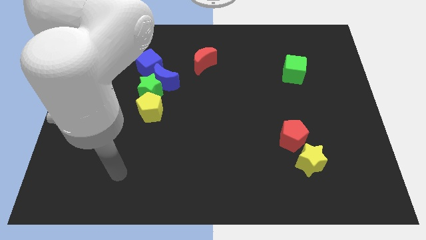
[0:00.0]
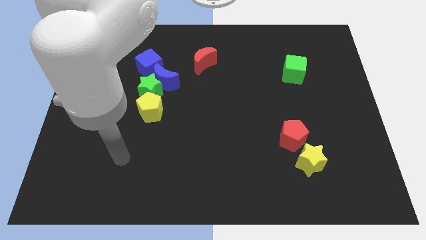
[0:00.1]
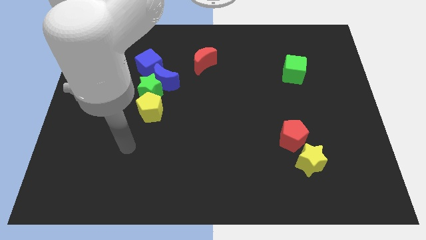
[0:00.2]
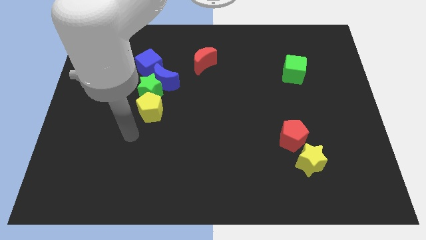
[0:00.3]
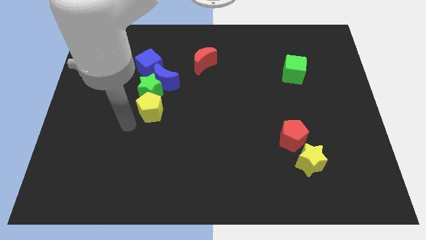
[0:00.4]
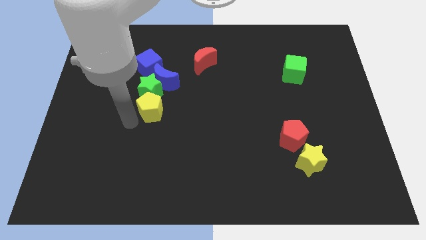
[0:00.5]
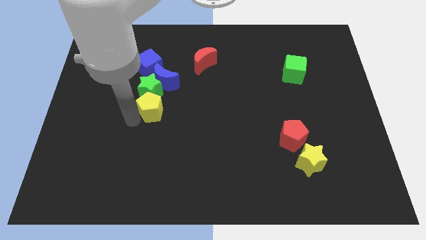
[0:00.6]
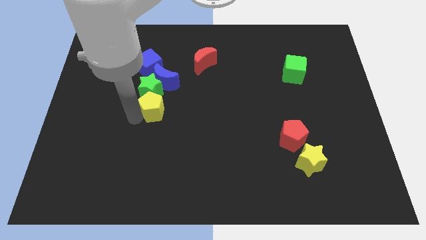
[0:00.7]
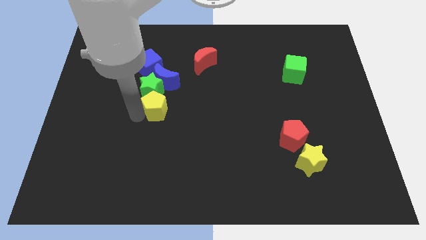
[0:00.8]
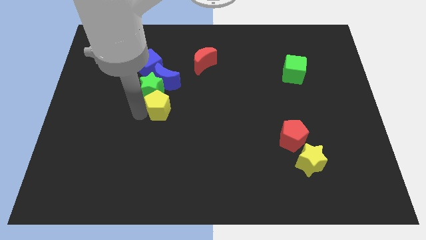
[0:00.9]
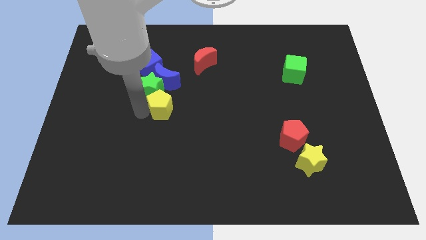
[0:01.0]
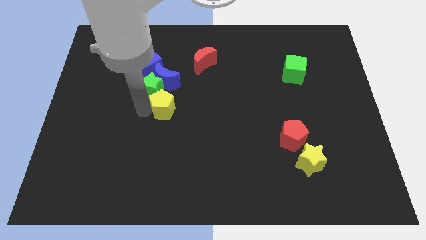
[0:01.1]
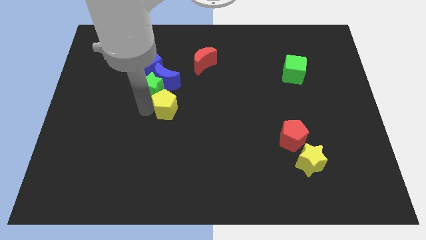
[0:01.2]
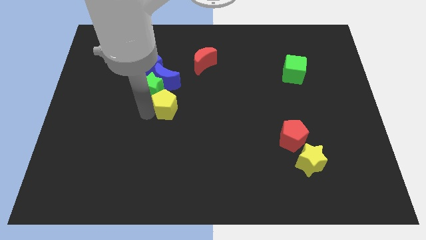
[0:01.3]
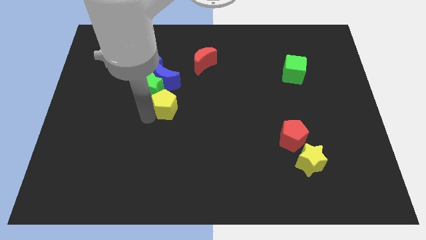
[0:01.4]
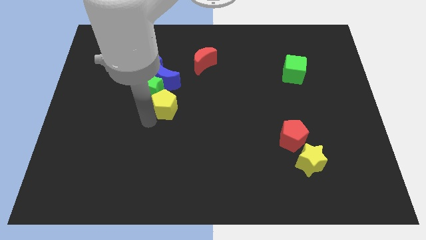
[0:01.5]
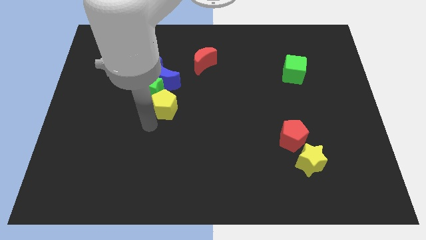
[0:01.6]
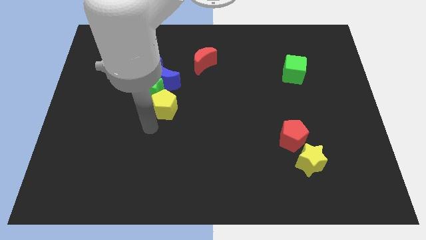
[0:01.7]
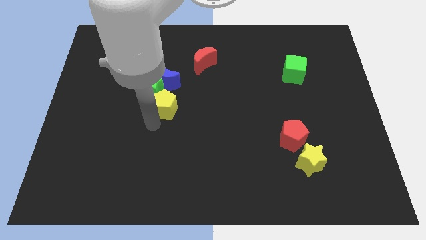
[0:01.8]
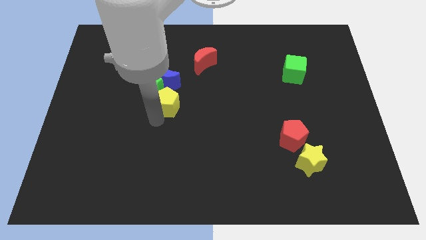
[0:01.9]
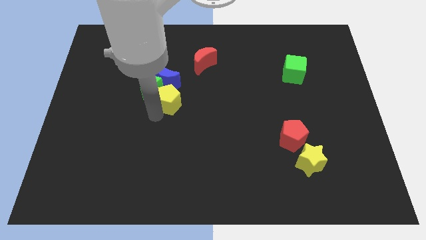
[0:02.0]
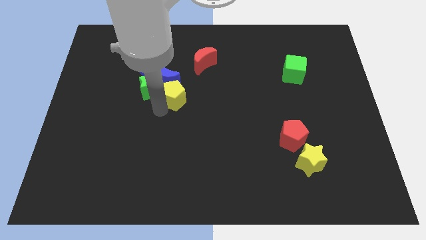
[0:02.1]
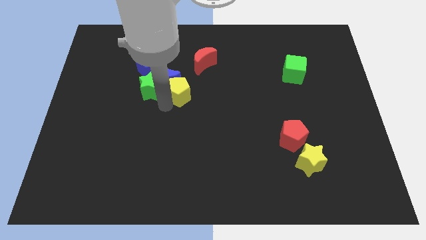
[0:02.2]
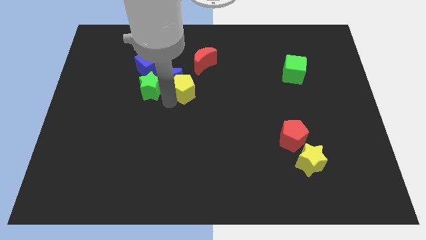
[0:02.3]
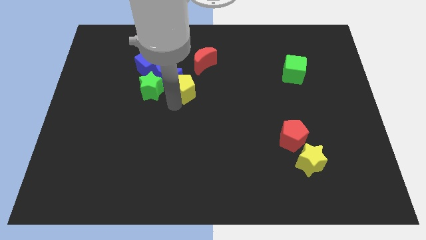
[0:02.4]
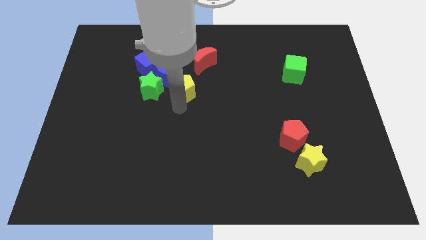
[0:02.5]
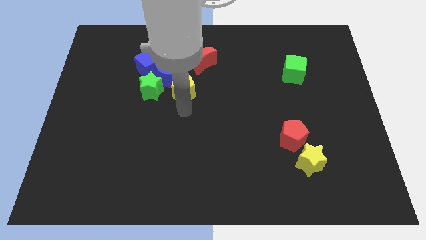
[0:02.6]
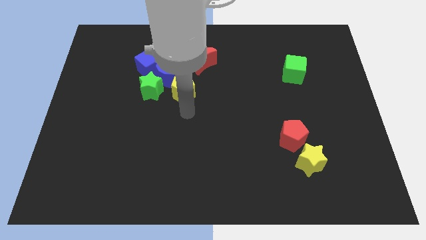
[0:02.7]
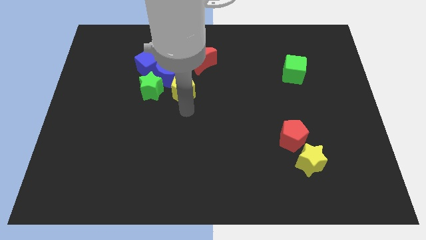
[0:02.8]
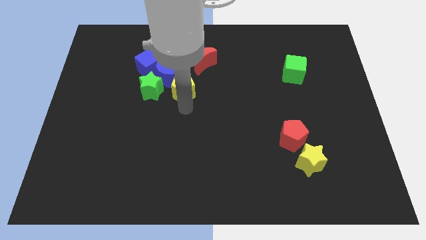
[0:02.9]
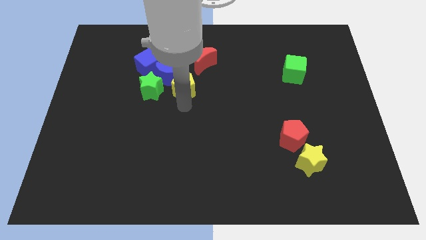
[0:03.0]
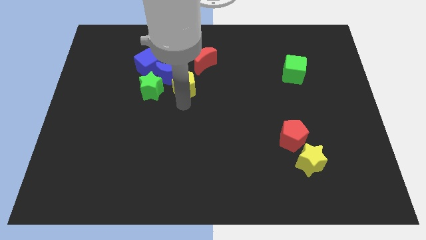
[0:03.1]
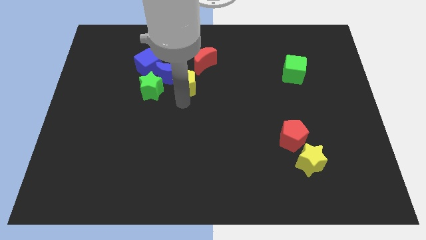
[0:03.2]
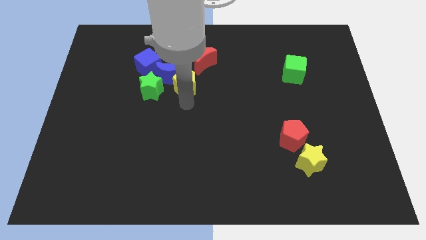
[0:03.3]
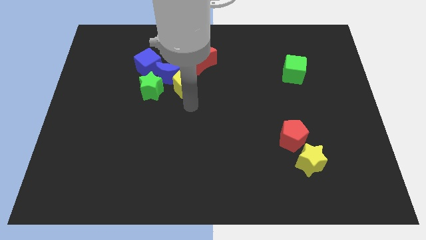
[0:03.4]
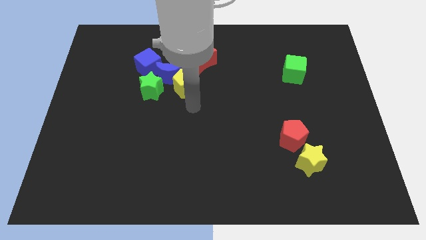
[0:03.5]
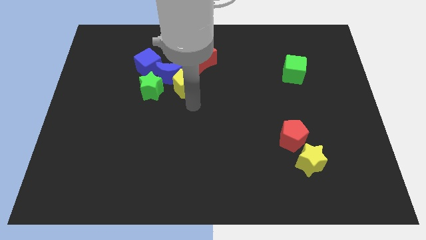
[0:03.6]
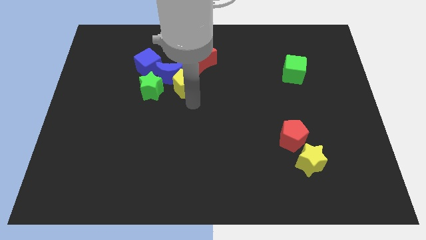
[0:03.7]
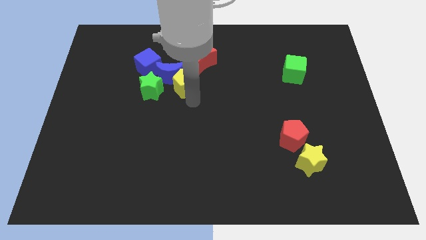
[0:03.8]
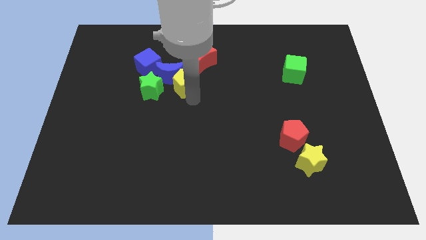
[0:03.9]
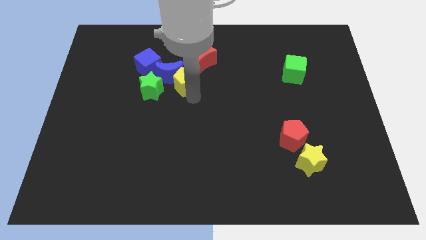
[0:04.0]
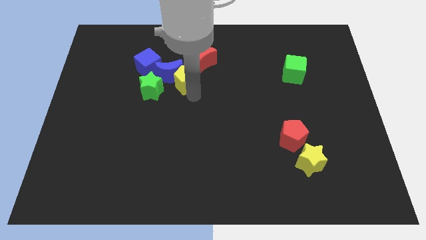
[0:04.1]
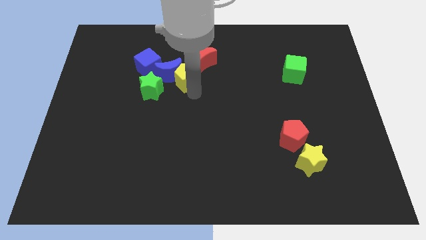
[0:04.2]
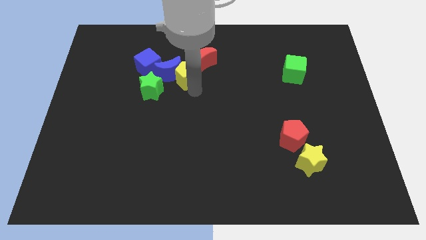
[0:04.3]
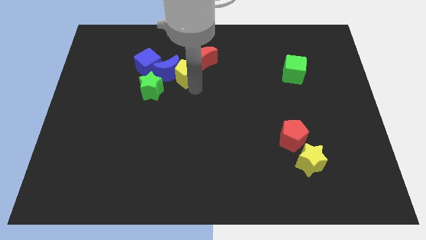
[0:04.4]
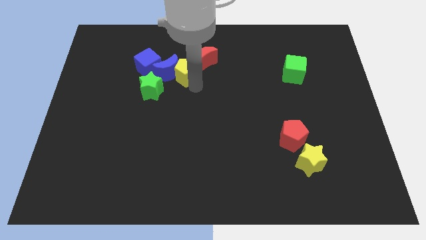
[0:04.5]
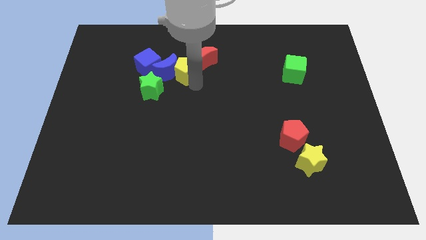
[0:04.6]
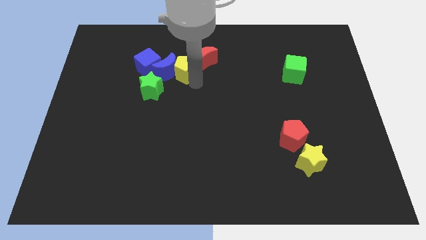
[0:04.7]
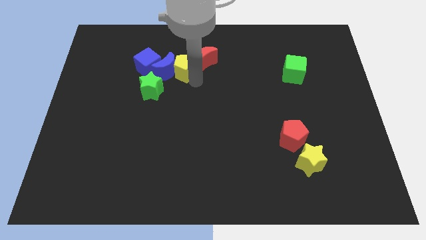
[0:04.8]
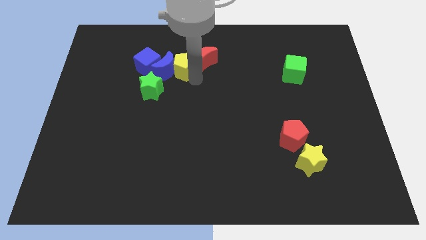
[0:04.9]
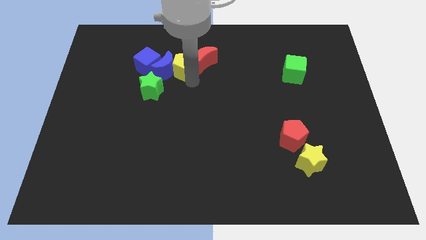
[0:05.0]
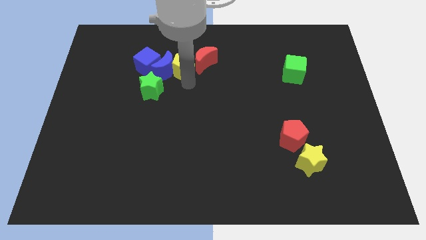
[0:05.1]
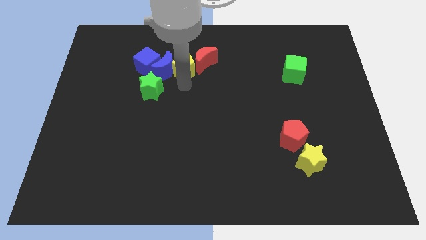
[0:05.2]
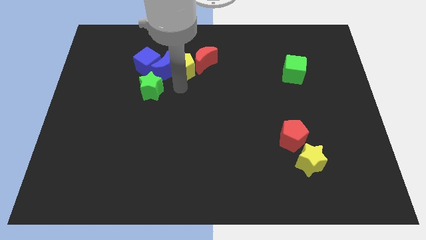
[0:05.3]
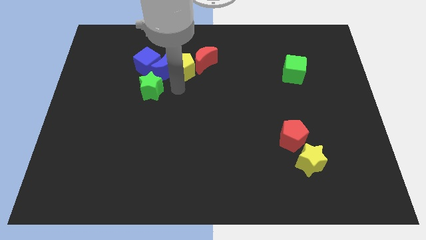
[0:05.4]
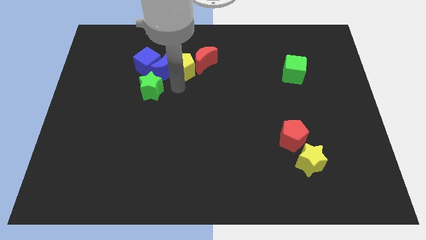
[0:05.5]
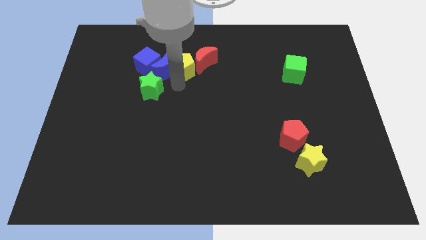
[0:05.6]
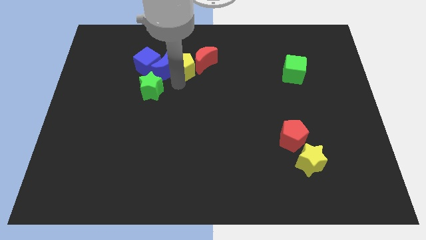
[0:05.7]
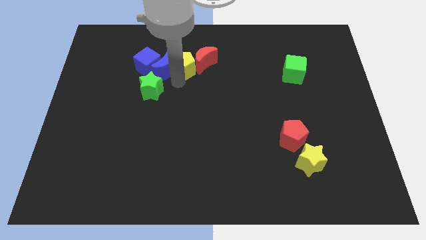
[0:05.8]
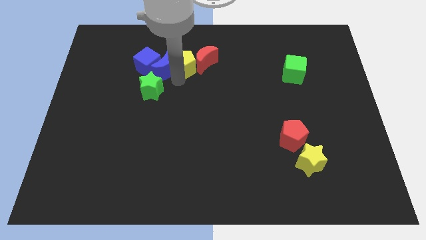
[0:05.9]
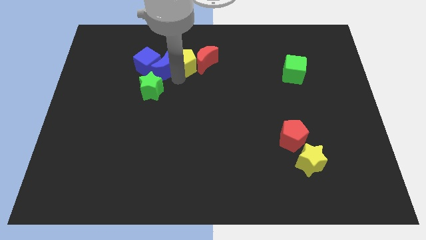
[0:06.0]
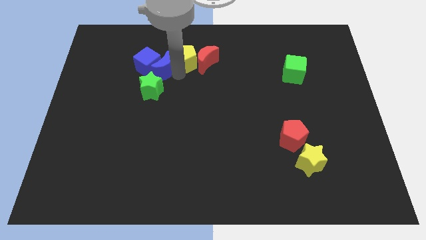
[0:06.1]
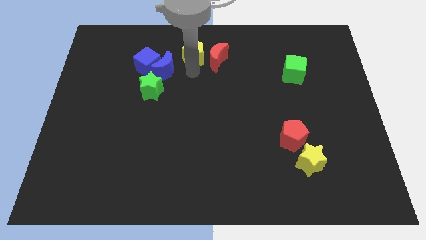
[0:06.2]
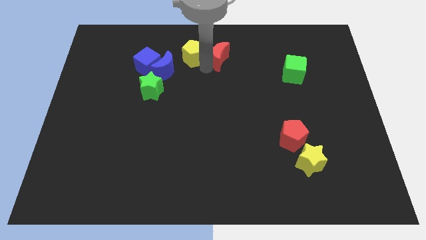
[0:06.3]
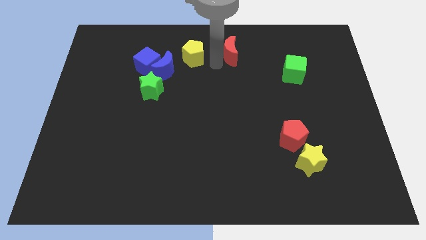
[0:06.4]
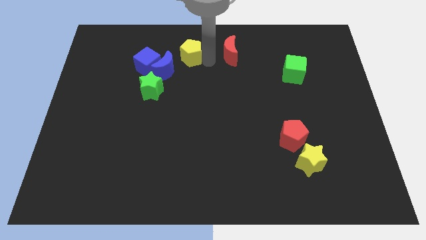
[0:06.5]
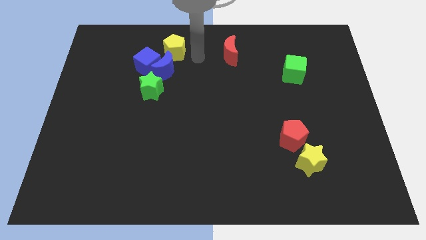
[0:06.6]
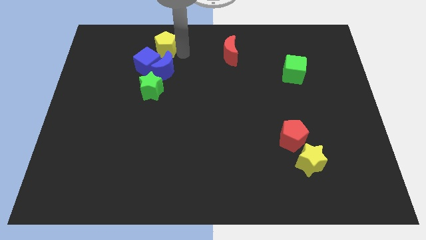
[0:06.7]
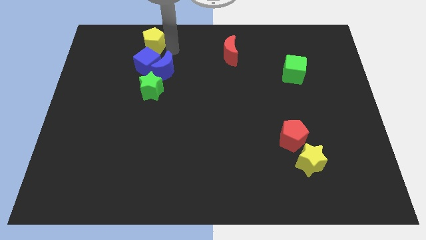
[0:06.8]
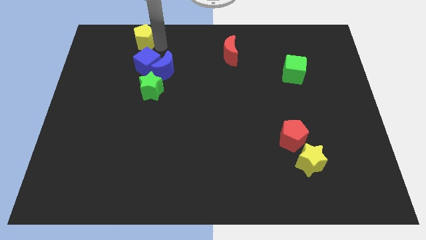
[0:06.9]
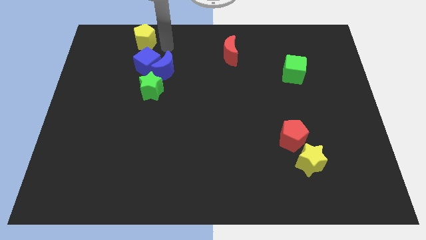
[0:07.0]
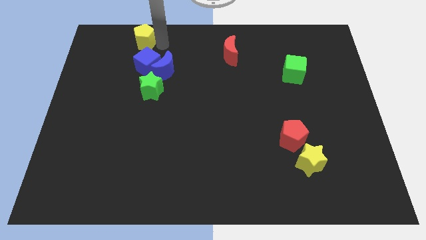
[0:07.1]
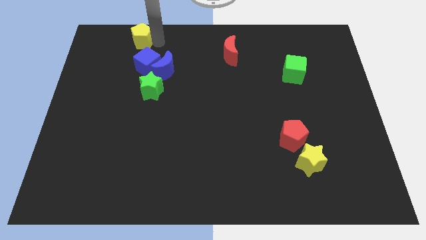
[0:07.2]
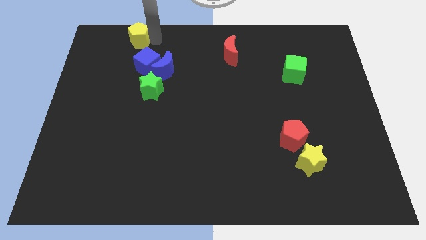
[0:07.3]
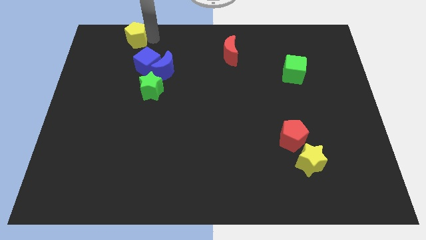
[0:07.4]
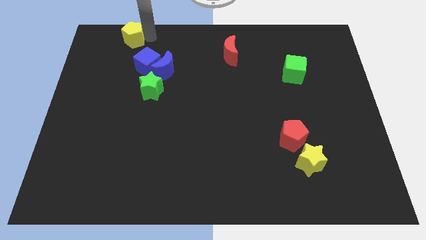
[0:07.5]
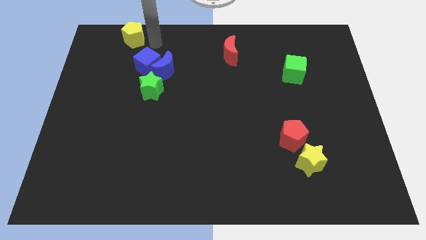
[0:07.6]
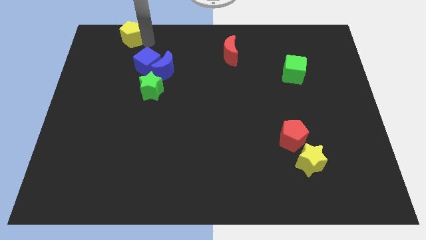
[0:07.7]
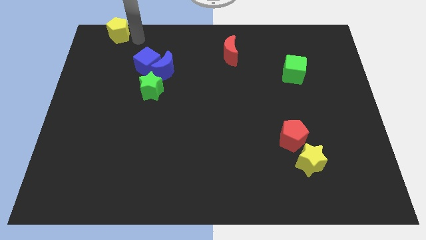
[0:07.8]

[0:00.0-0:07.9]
slide the yellow pentagon to the top left corner
